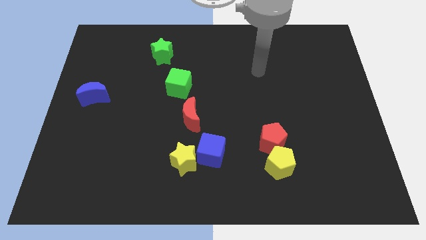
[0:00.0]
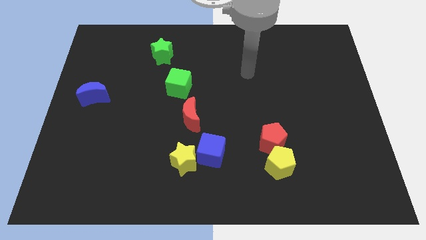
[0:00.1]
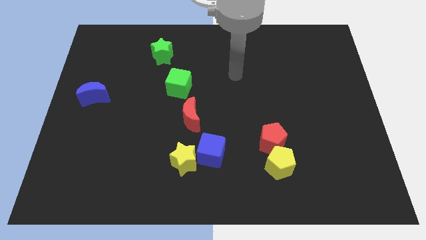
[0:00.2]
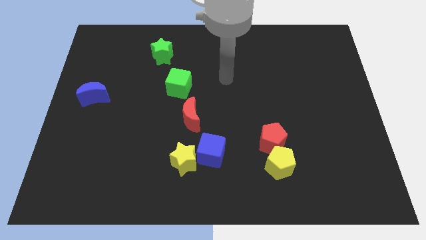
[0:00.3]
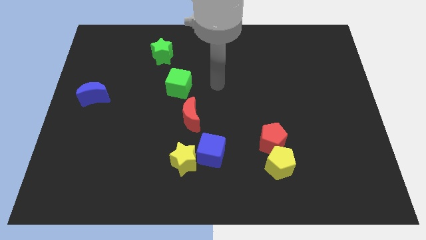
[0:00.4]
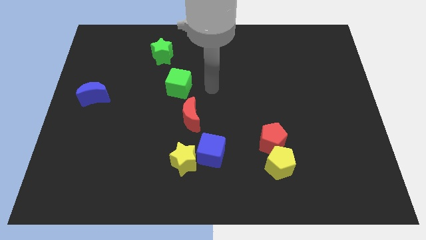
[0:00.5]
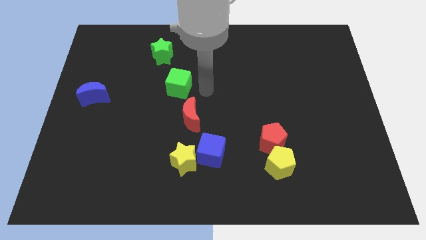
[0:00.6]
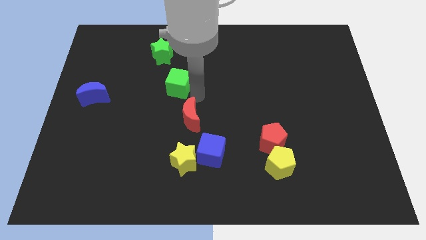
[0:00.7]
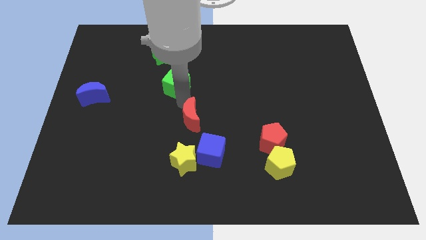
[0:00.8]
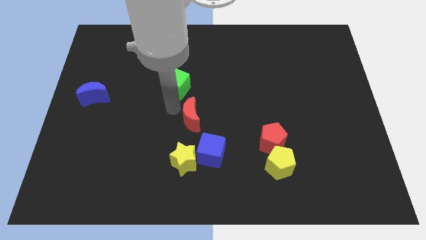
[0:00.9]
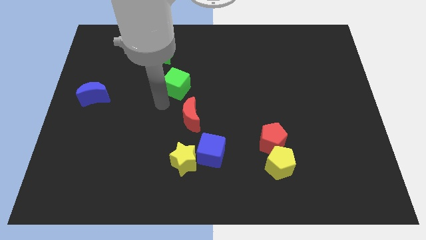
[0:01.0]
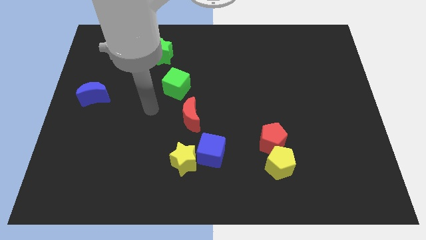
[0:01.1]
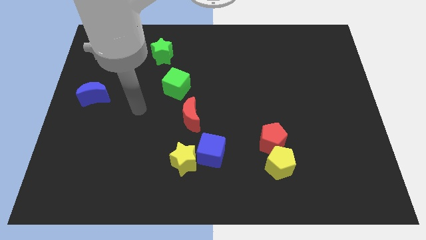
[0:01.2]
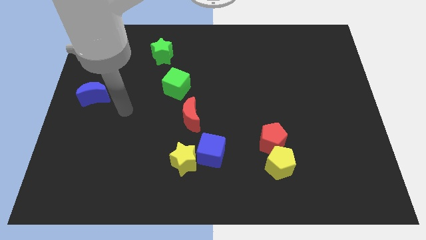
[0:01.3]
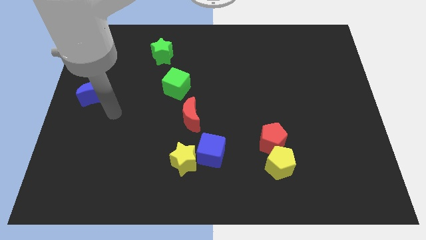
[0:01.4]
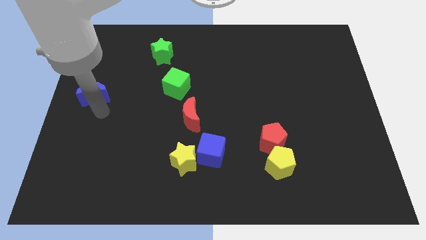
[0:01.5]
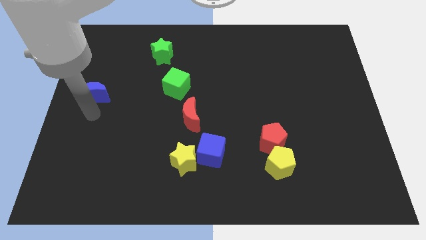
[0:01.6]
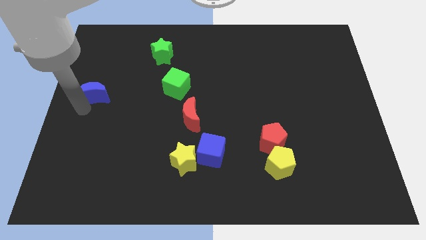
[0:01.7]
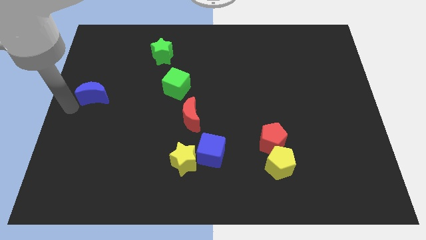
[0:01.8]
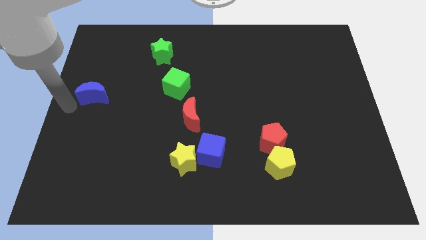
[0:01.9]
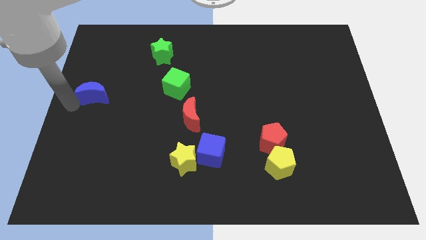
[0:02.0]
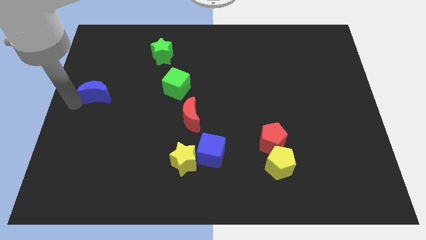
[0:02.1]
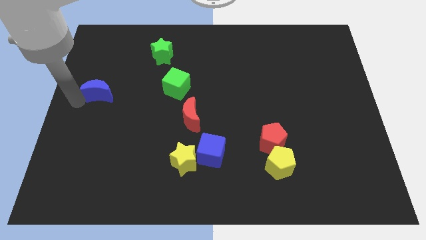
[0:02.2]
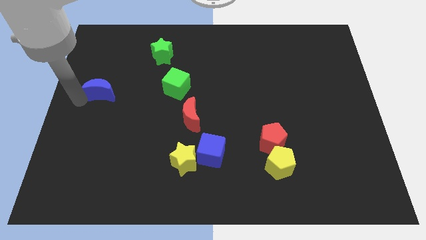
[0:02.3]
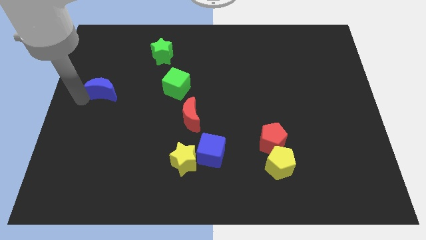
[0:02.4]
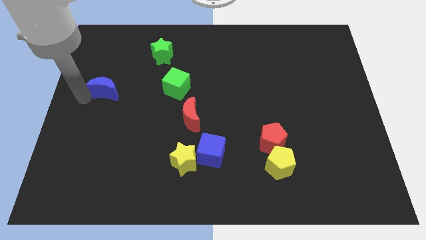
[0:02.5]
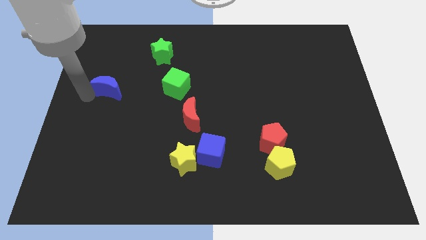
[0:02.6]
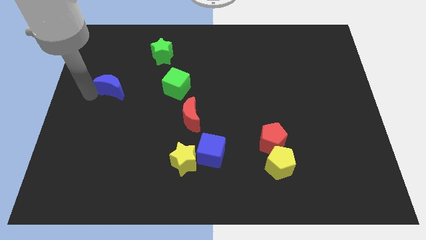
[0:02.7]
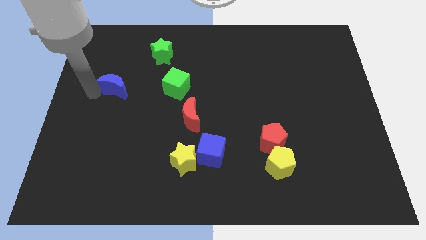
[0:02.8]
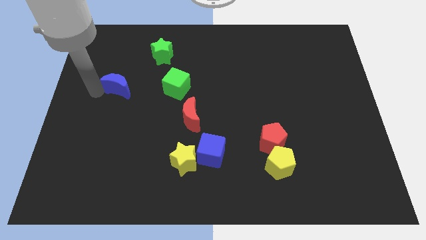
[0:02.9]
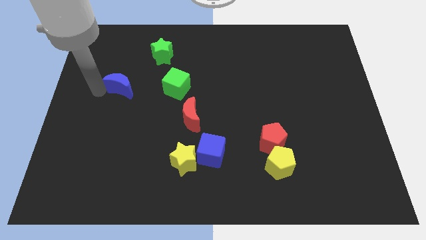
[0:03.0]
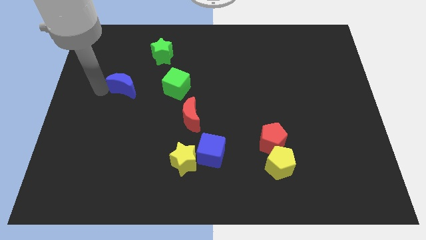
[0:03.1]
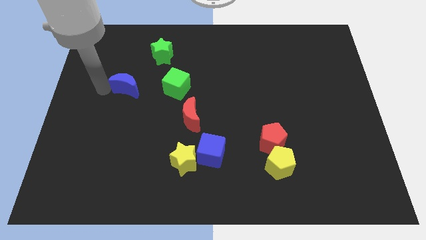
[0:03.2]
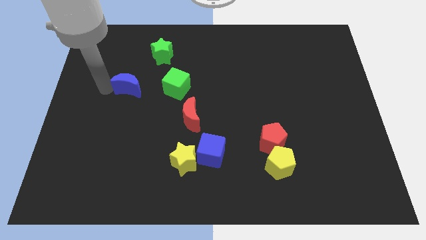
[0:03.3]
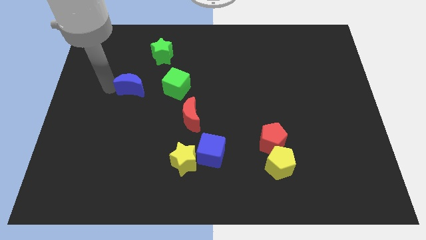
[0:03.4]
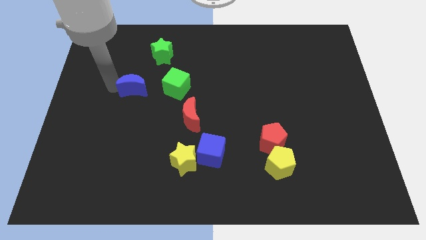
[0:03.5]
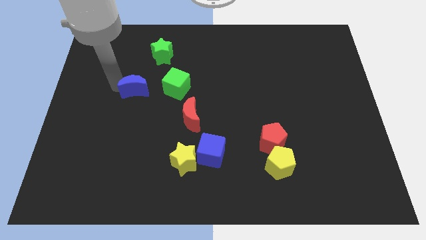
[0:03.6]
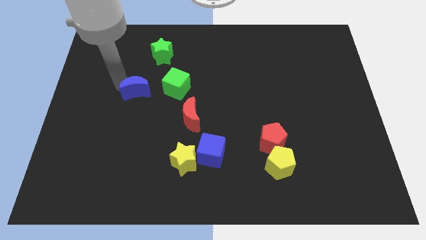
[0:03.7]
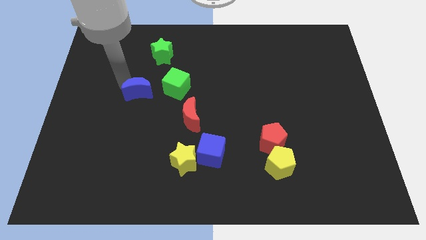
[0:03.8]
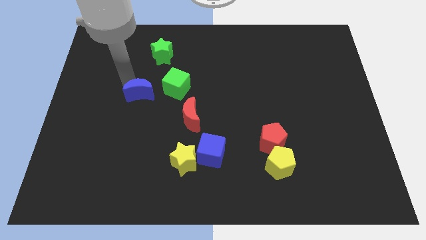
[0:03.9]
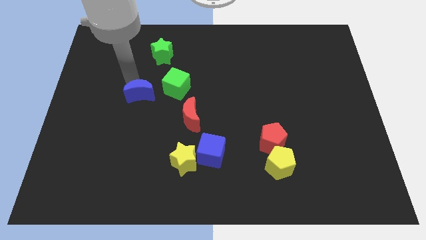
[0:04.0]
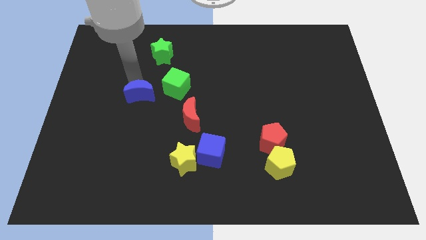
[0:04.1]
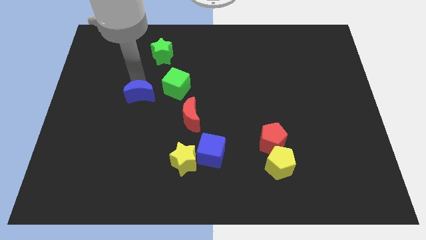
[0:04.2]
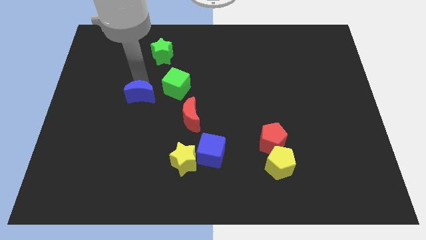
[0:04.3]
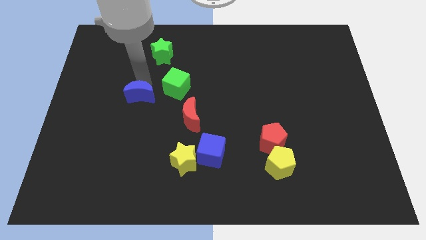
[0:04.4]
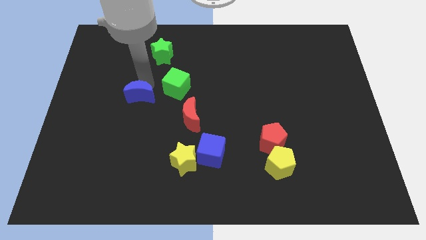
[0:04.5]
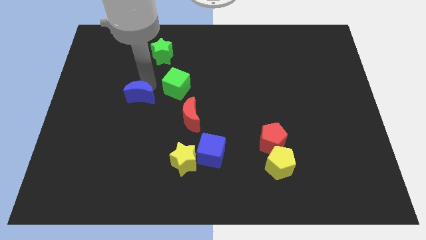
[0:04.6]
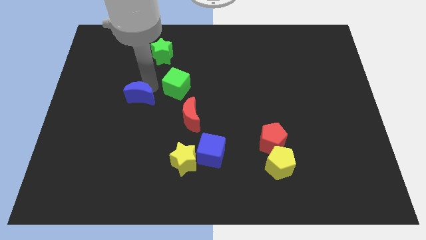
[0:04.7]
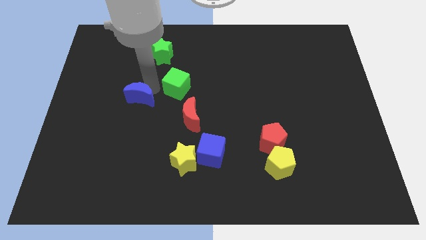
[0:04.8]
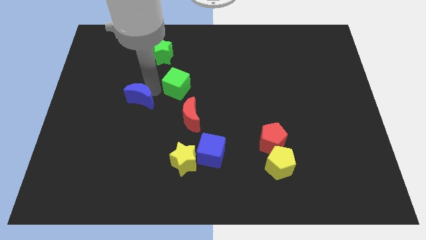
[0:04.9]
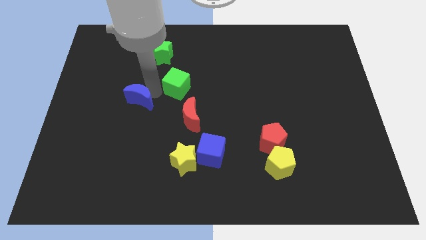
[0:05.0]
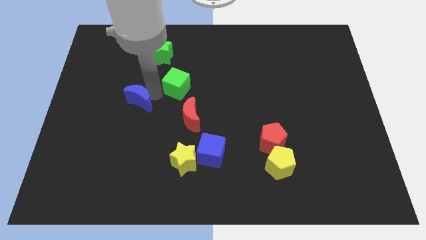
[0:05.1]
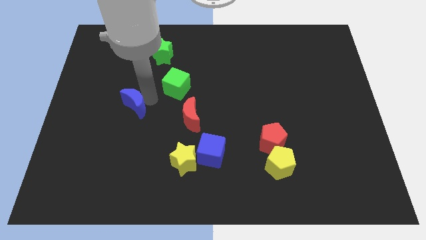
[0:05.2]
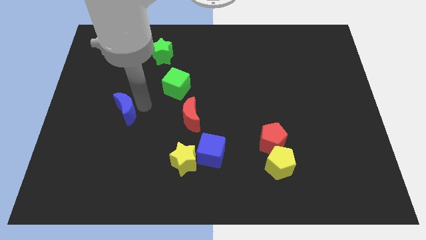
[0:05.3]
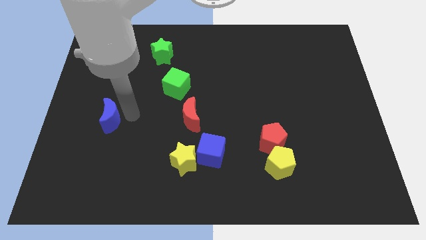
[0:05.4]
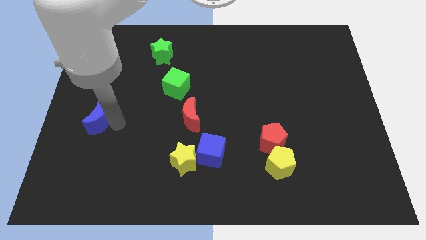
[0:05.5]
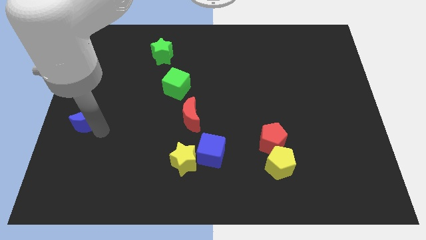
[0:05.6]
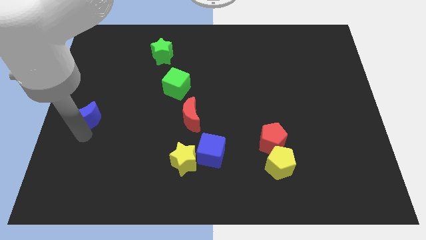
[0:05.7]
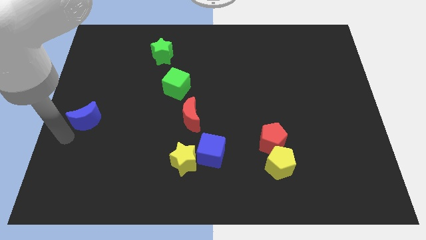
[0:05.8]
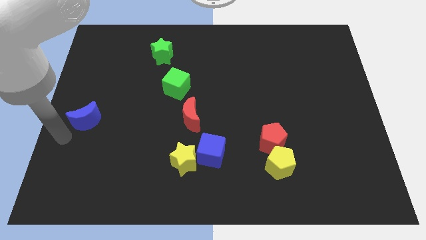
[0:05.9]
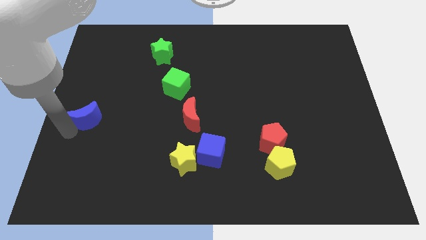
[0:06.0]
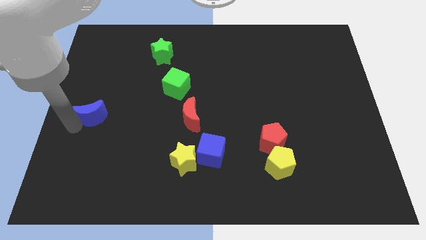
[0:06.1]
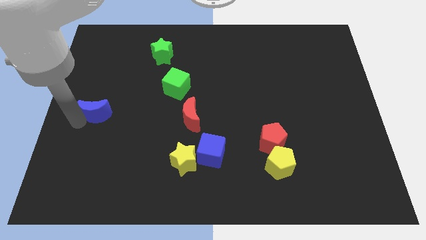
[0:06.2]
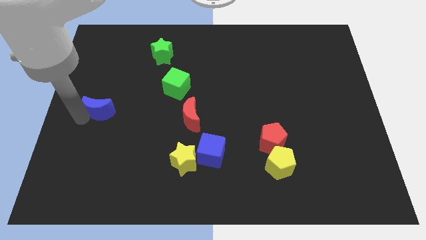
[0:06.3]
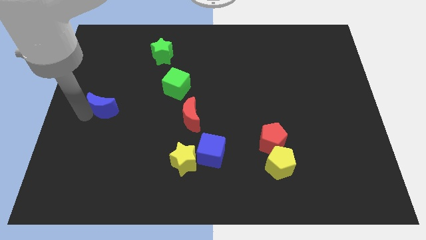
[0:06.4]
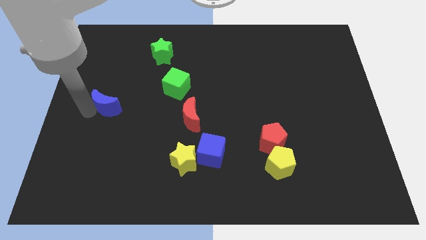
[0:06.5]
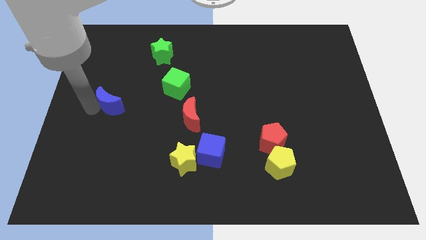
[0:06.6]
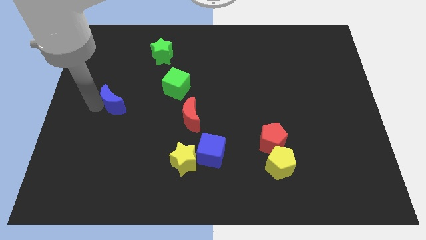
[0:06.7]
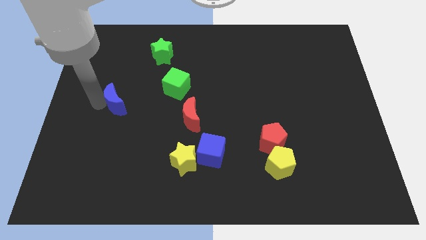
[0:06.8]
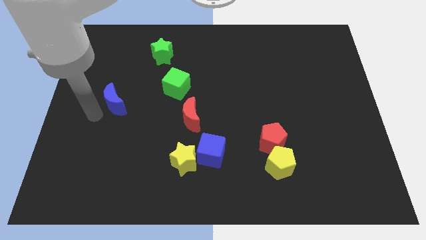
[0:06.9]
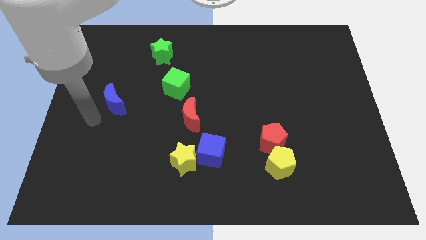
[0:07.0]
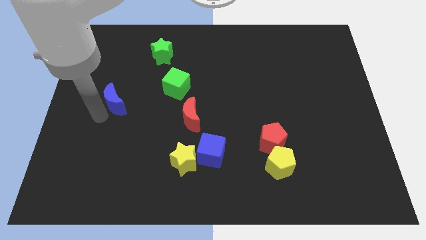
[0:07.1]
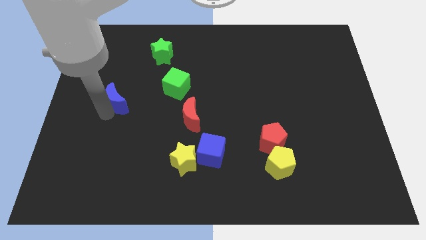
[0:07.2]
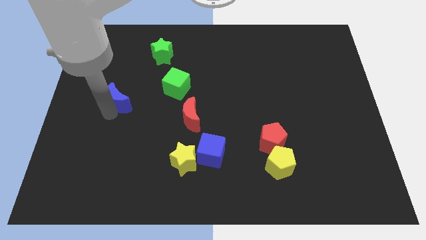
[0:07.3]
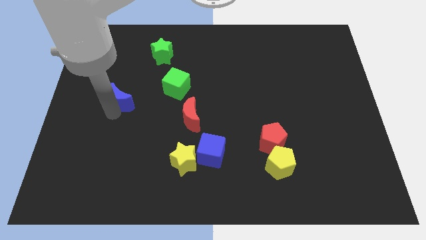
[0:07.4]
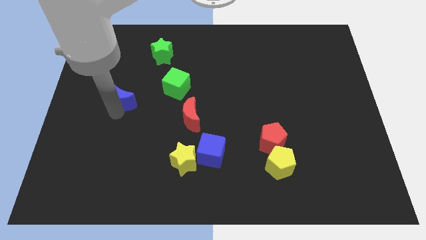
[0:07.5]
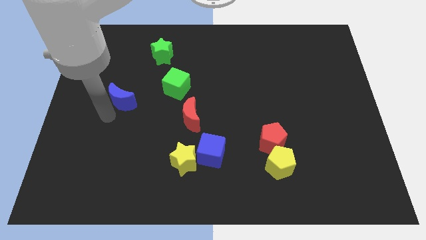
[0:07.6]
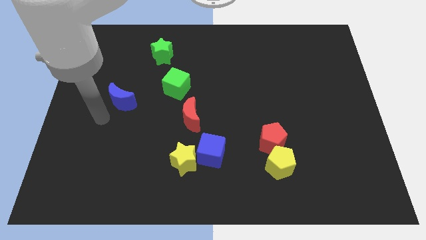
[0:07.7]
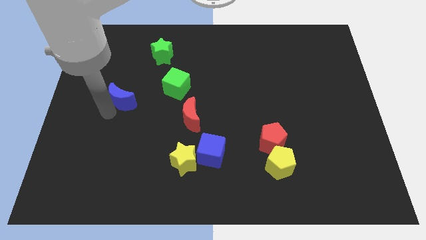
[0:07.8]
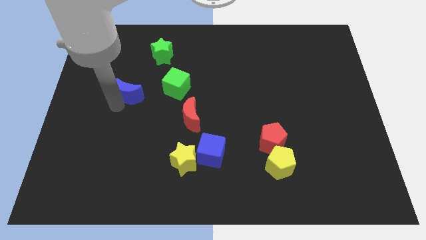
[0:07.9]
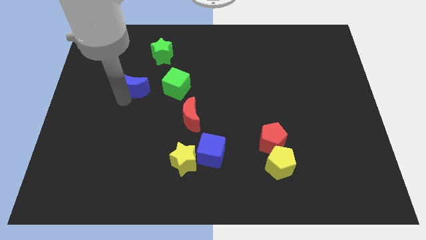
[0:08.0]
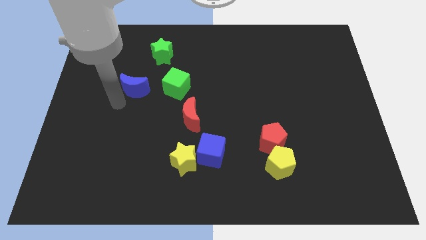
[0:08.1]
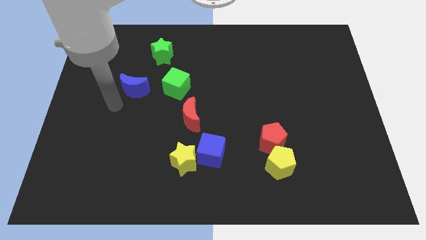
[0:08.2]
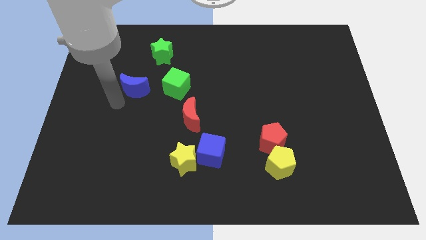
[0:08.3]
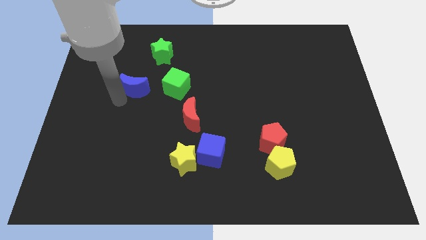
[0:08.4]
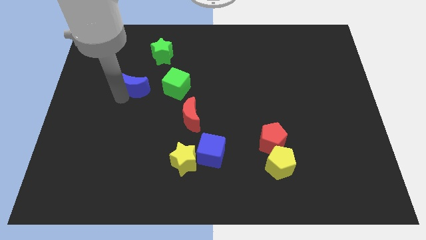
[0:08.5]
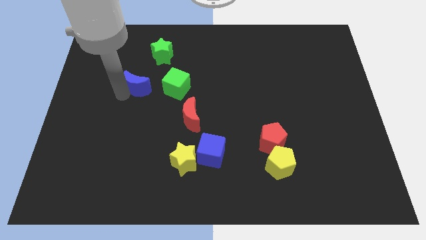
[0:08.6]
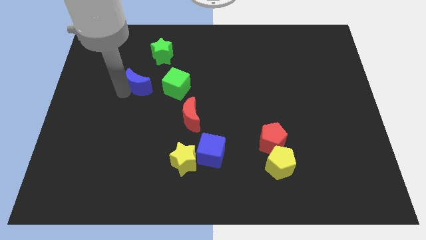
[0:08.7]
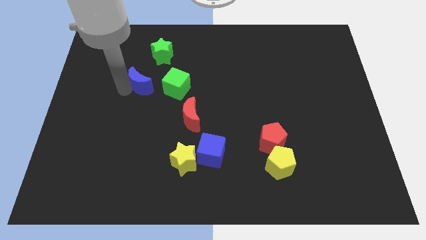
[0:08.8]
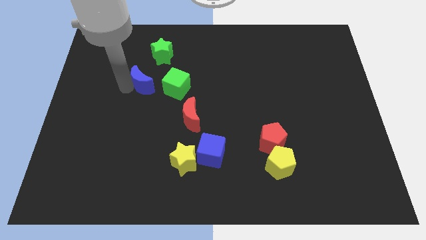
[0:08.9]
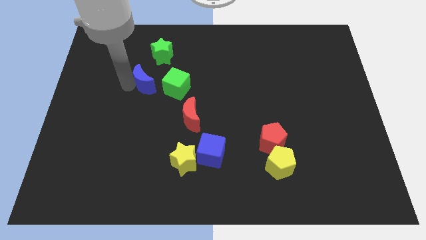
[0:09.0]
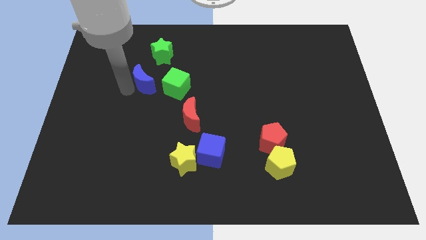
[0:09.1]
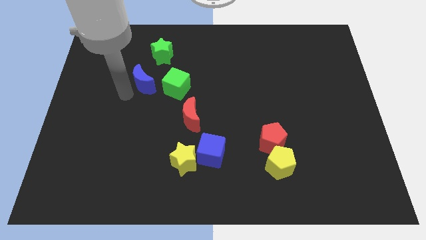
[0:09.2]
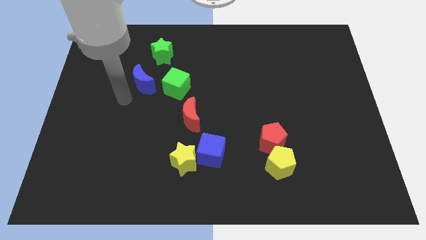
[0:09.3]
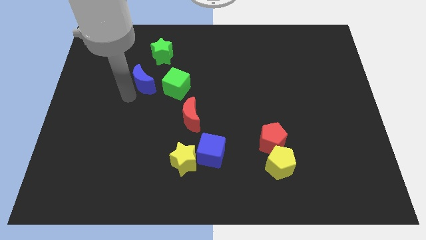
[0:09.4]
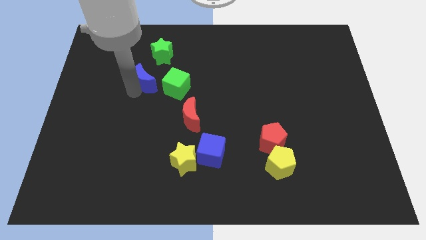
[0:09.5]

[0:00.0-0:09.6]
slide the blue moon diagonally up and to the left of the green cube
